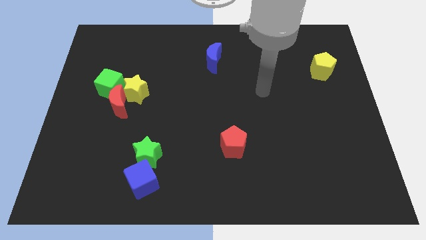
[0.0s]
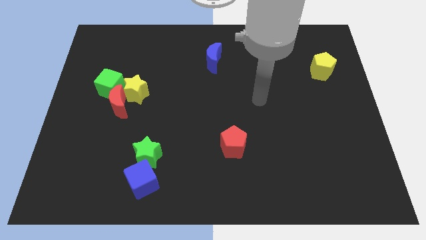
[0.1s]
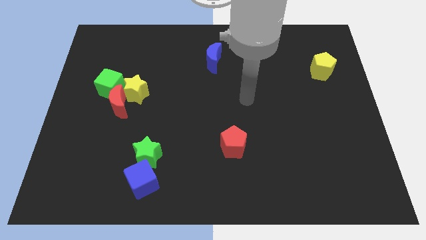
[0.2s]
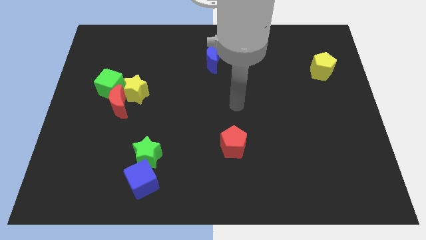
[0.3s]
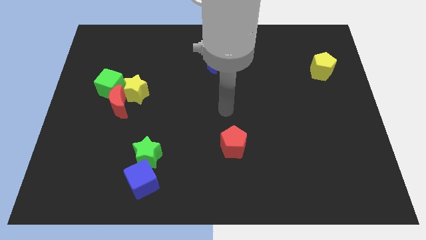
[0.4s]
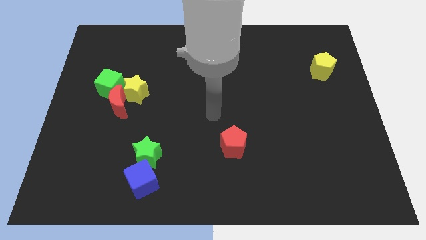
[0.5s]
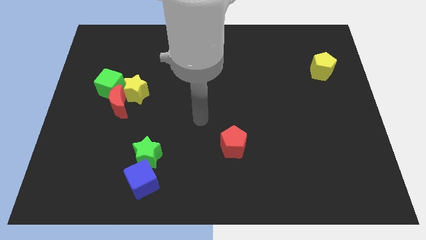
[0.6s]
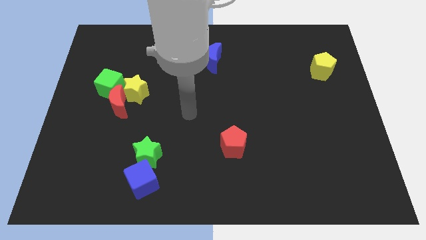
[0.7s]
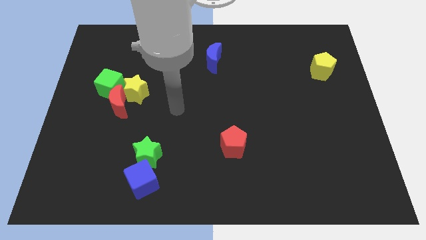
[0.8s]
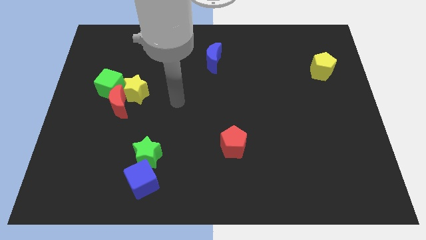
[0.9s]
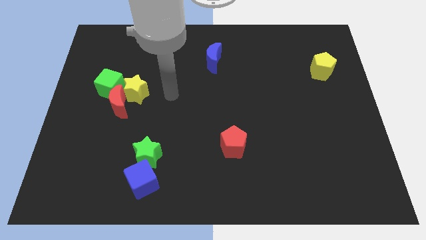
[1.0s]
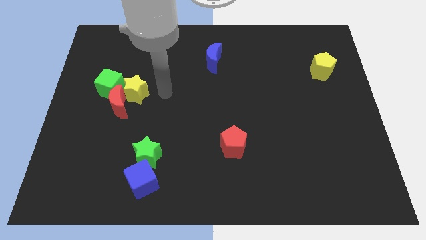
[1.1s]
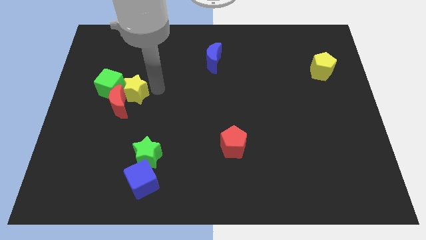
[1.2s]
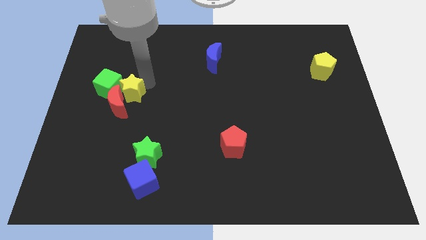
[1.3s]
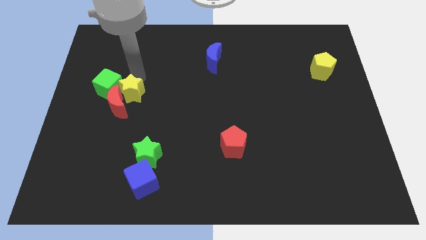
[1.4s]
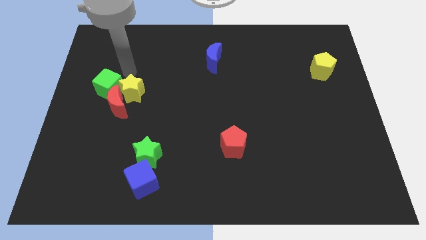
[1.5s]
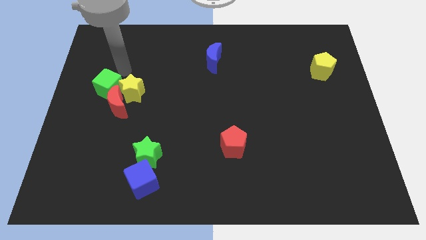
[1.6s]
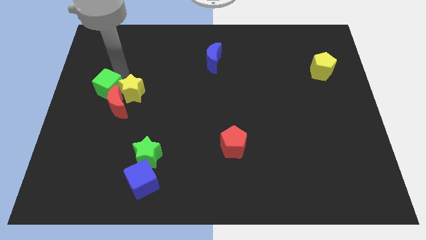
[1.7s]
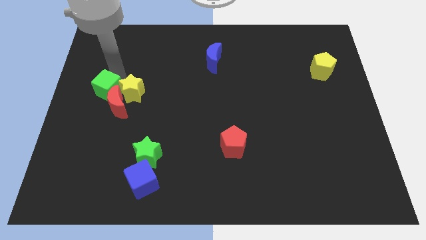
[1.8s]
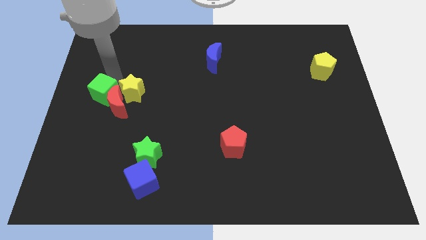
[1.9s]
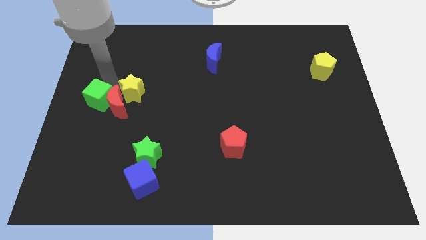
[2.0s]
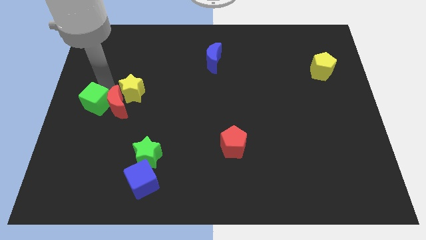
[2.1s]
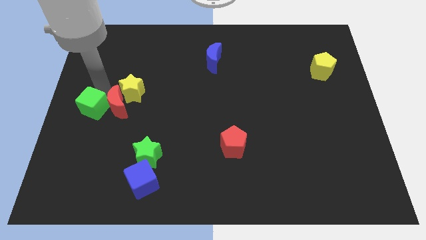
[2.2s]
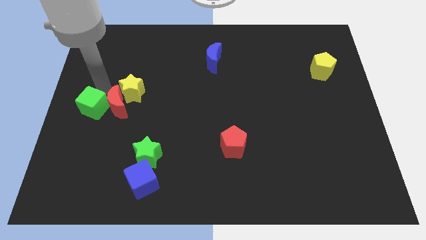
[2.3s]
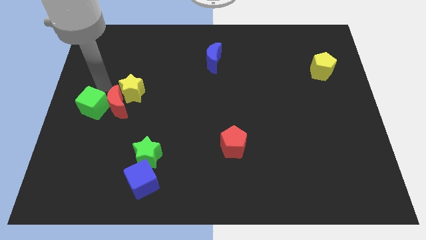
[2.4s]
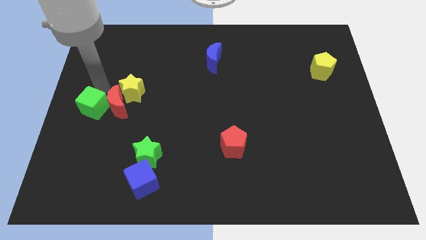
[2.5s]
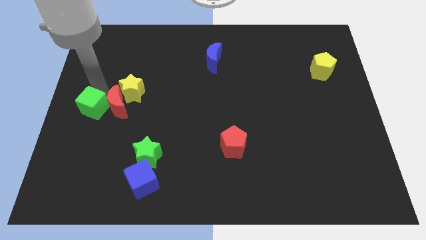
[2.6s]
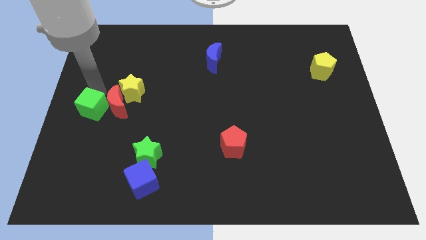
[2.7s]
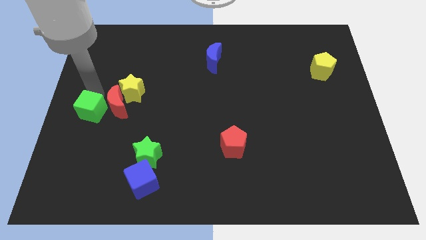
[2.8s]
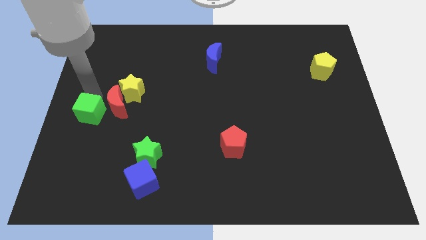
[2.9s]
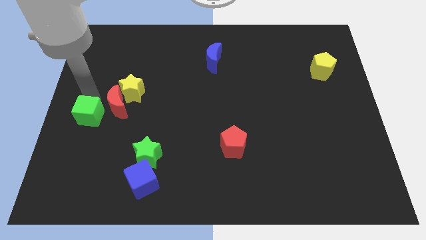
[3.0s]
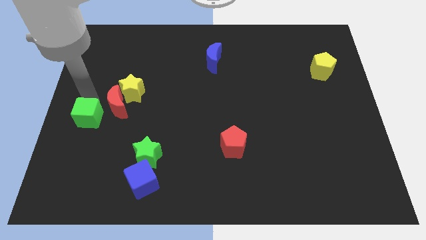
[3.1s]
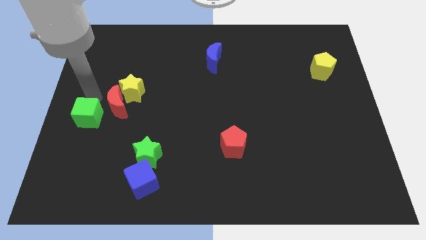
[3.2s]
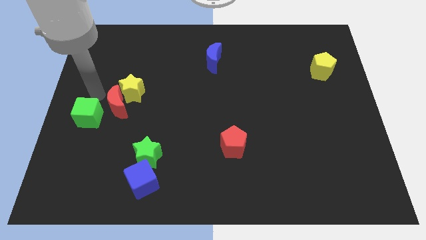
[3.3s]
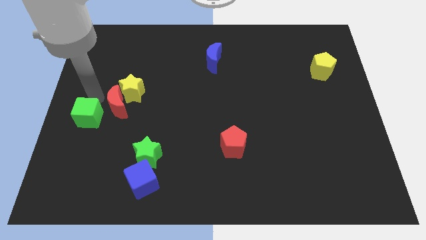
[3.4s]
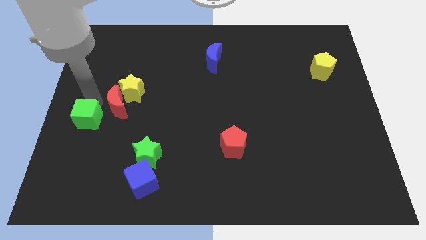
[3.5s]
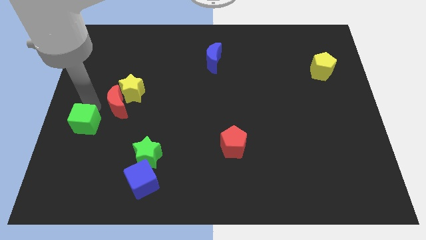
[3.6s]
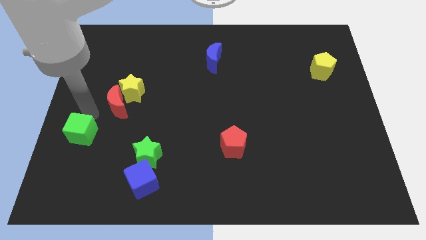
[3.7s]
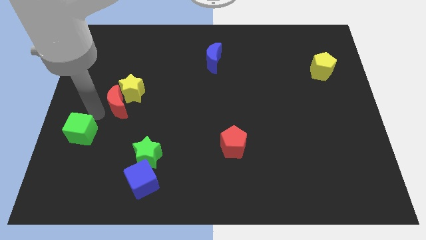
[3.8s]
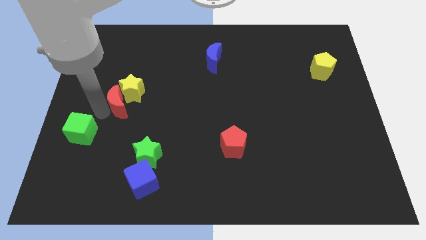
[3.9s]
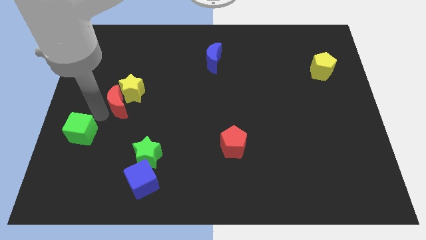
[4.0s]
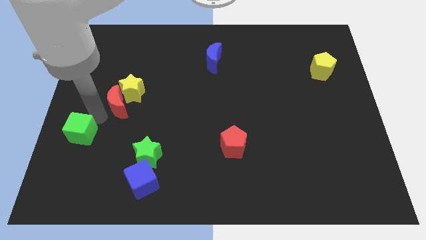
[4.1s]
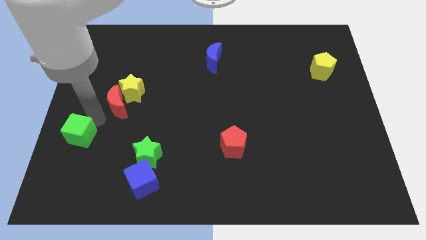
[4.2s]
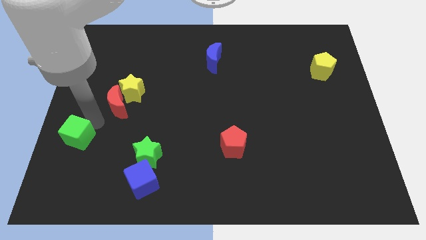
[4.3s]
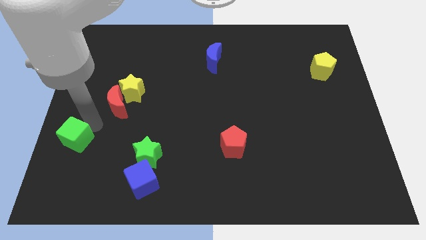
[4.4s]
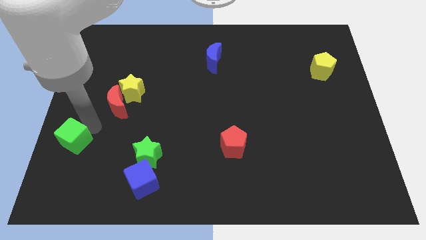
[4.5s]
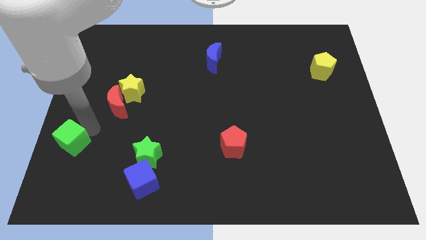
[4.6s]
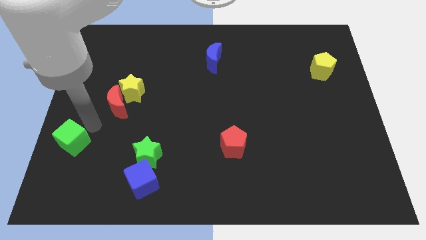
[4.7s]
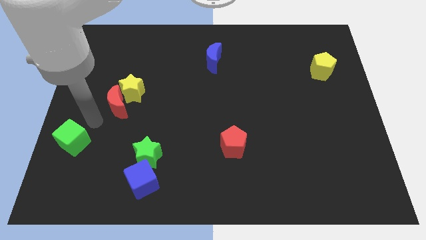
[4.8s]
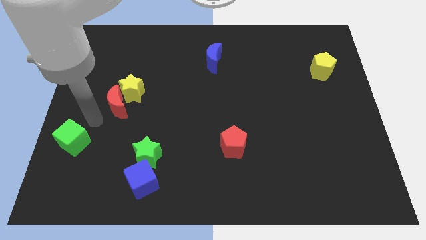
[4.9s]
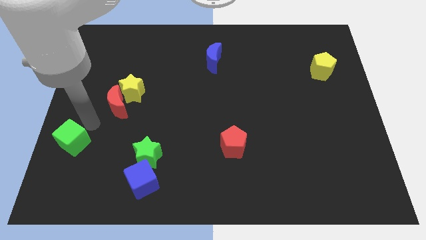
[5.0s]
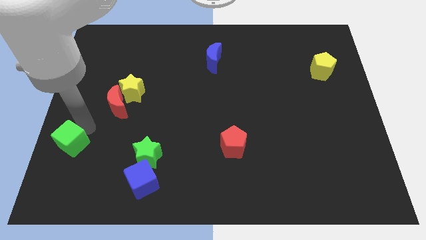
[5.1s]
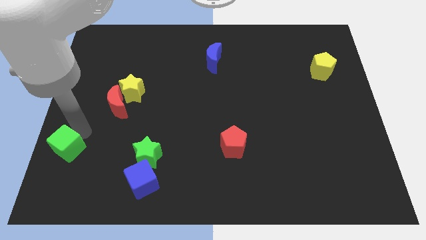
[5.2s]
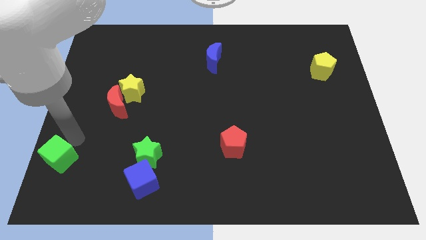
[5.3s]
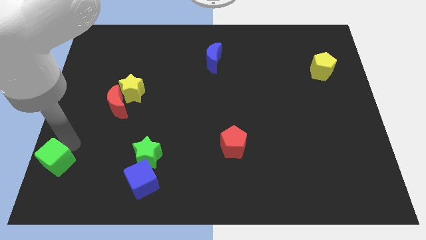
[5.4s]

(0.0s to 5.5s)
push the green cube to the bottom left of the board

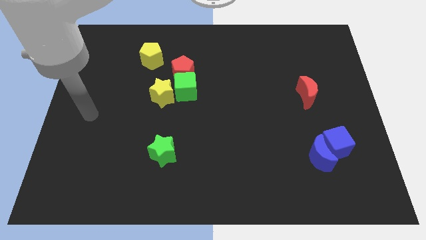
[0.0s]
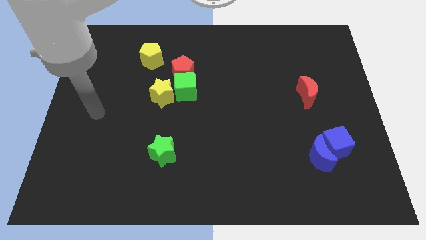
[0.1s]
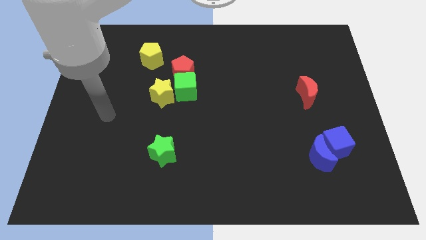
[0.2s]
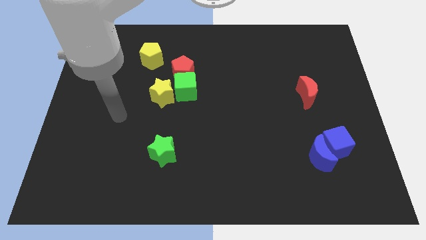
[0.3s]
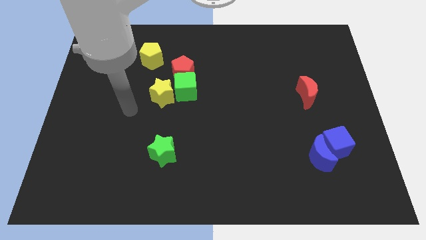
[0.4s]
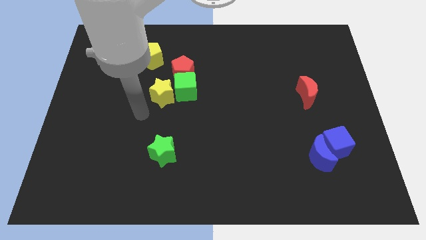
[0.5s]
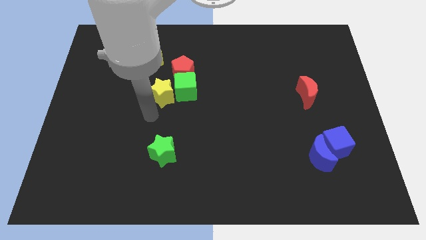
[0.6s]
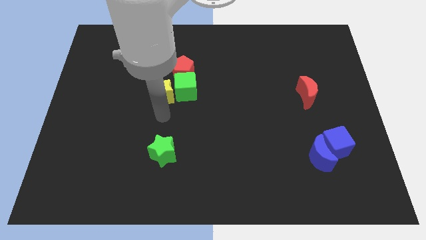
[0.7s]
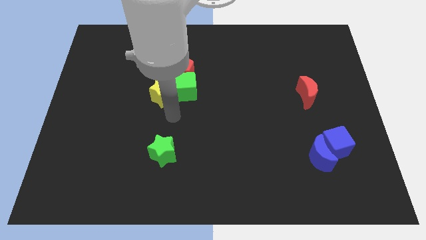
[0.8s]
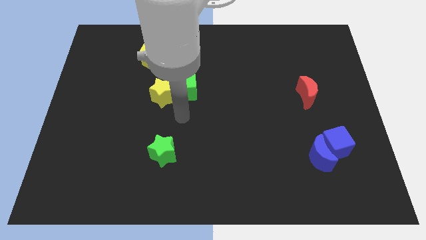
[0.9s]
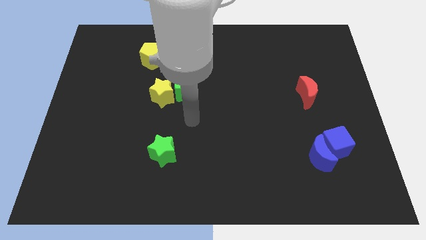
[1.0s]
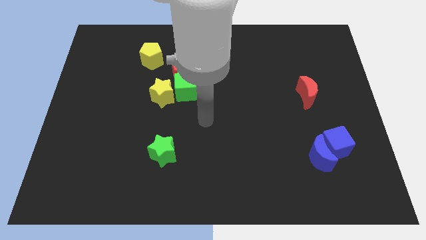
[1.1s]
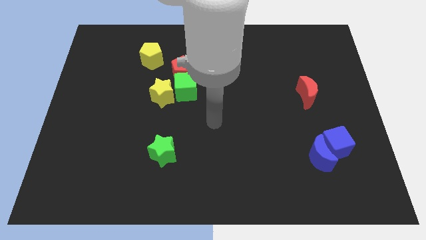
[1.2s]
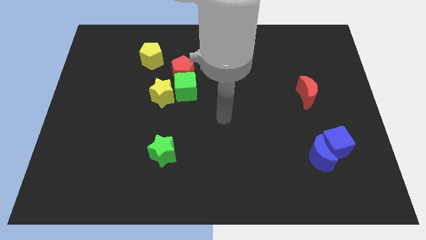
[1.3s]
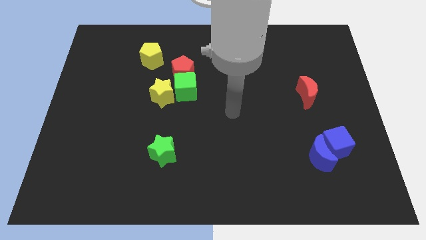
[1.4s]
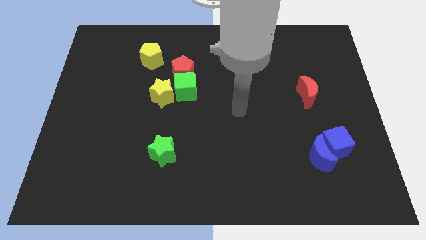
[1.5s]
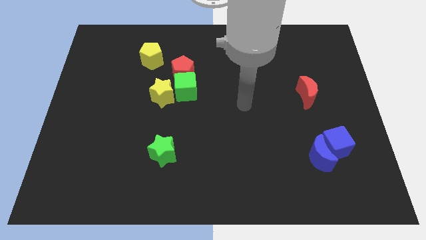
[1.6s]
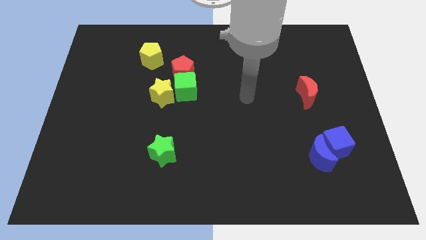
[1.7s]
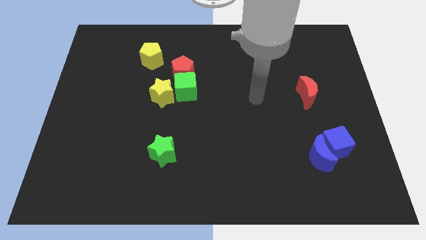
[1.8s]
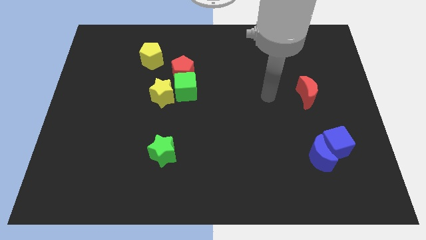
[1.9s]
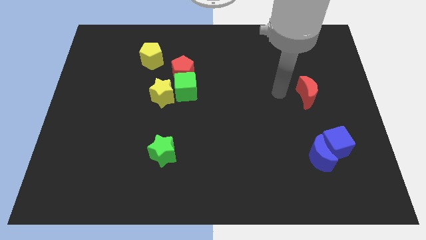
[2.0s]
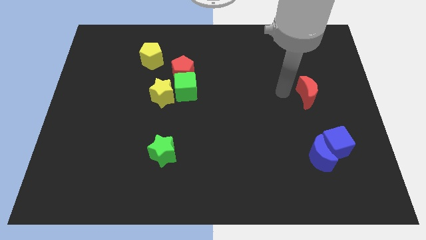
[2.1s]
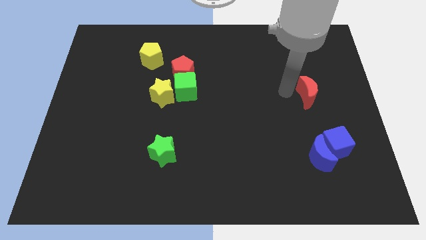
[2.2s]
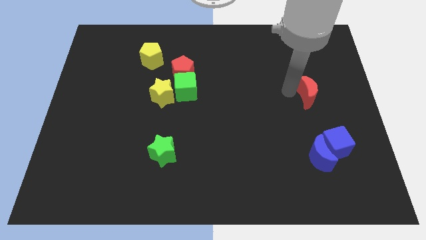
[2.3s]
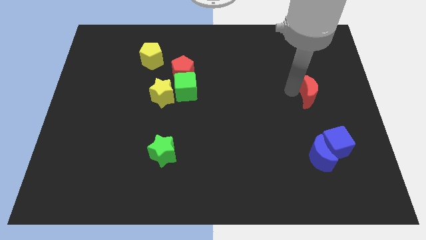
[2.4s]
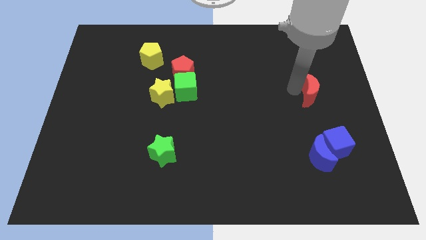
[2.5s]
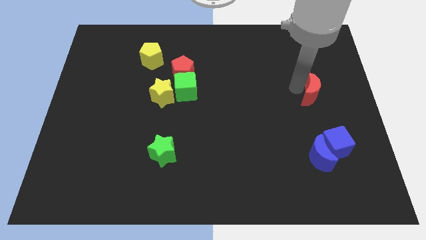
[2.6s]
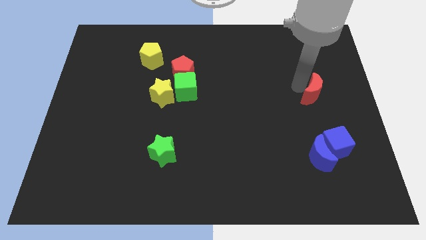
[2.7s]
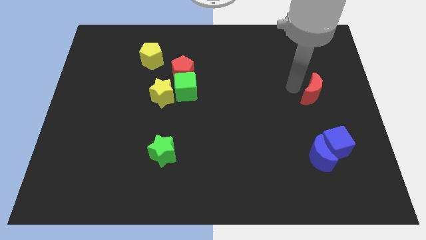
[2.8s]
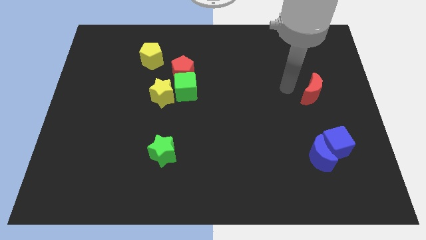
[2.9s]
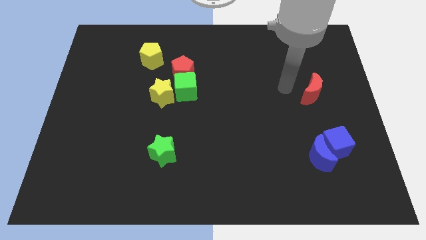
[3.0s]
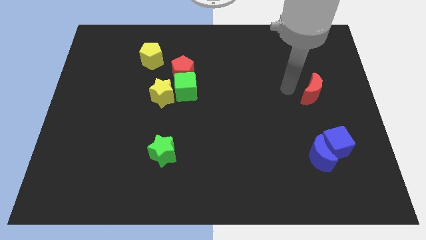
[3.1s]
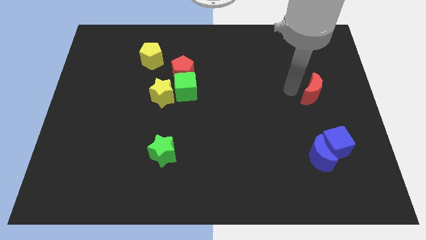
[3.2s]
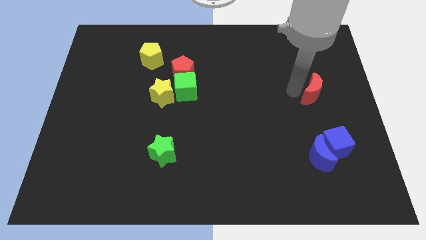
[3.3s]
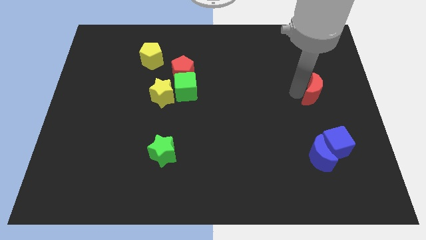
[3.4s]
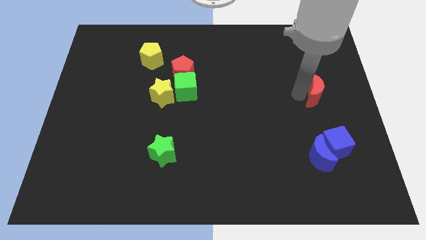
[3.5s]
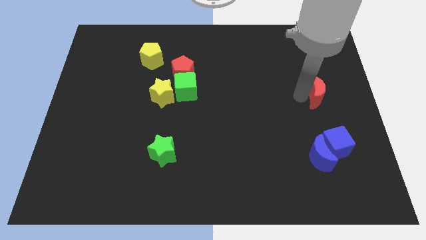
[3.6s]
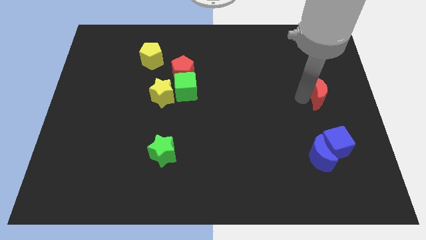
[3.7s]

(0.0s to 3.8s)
move the red moon to the right side of the board
